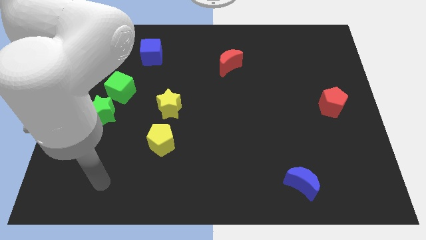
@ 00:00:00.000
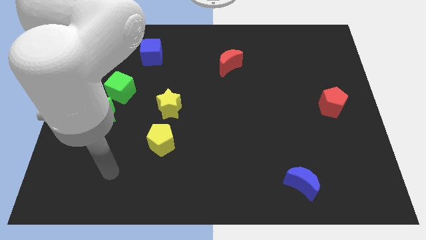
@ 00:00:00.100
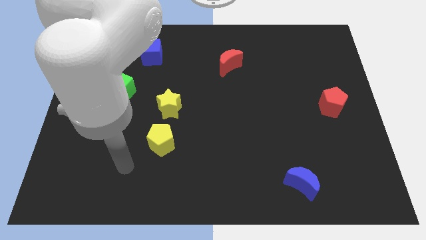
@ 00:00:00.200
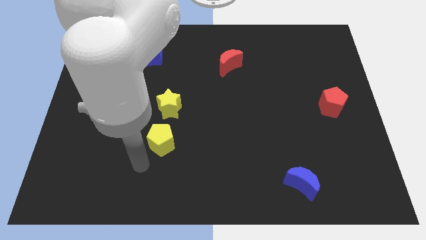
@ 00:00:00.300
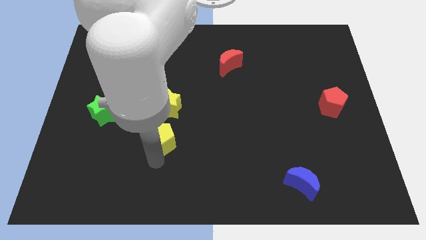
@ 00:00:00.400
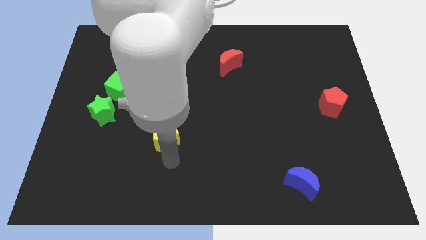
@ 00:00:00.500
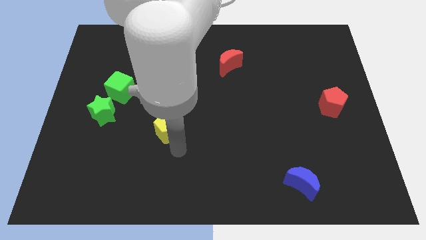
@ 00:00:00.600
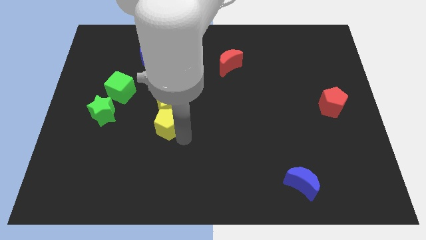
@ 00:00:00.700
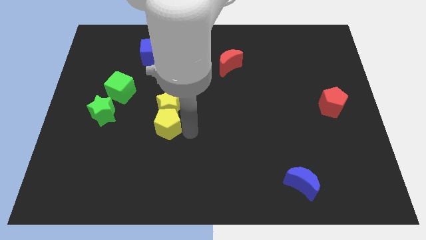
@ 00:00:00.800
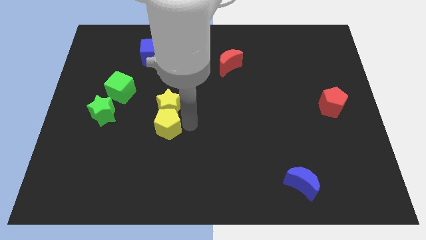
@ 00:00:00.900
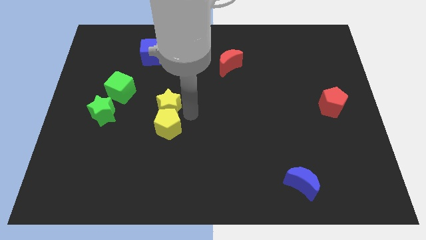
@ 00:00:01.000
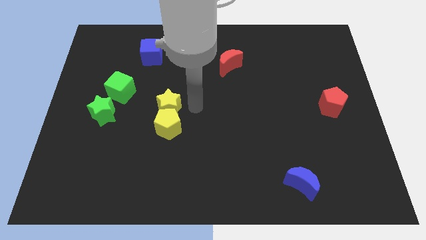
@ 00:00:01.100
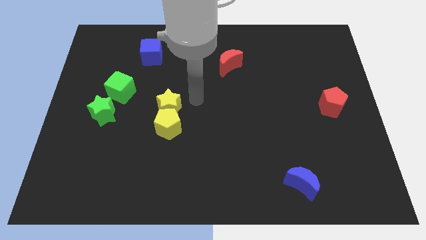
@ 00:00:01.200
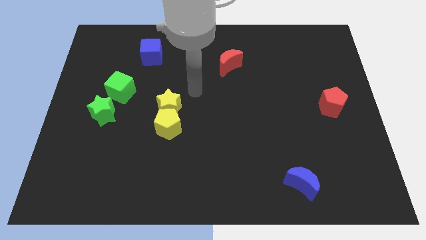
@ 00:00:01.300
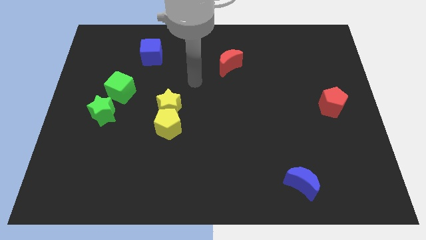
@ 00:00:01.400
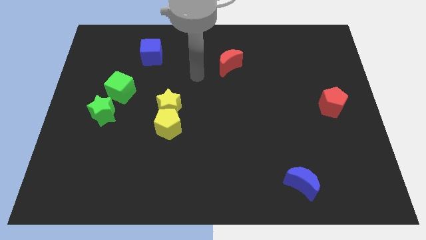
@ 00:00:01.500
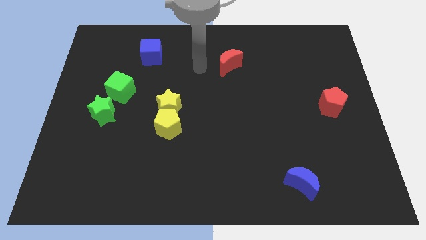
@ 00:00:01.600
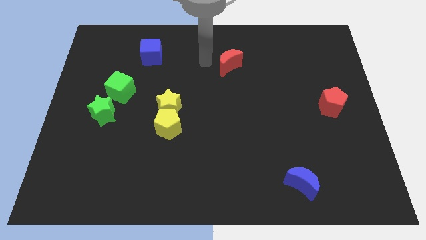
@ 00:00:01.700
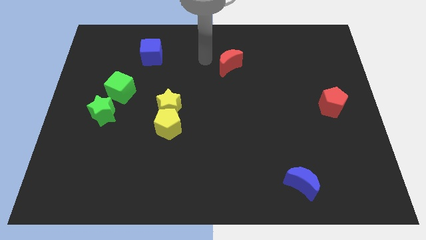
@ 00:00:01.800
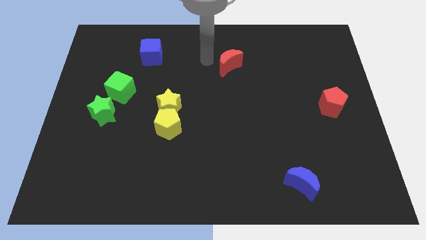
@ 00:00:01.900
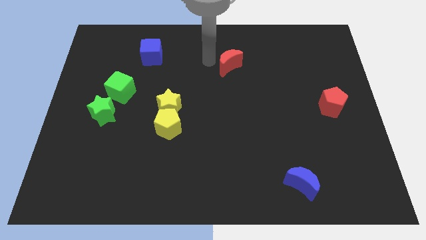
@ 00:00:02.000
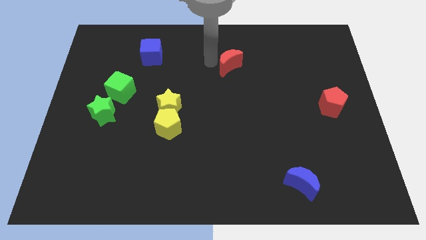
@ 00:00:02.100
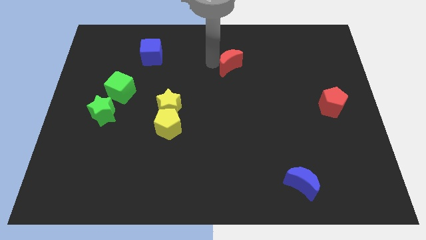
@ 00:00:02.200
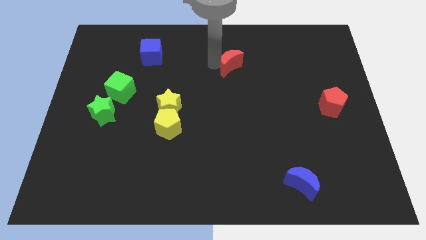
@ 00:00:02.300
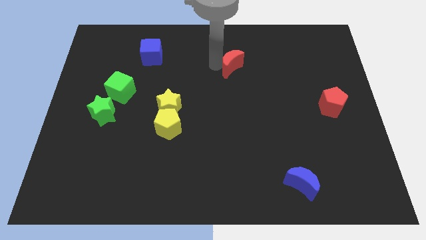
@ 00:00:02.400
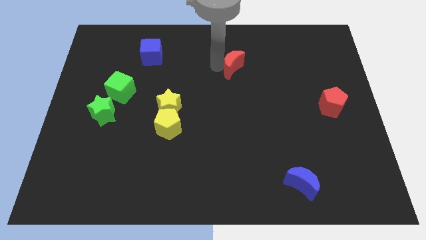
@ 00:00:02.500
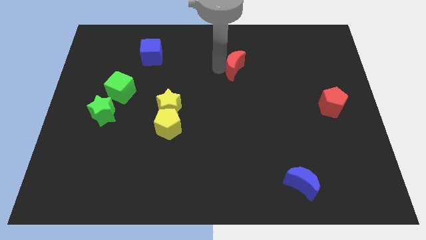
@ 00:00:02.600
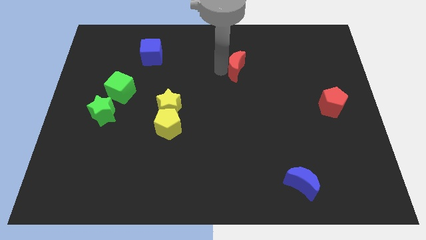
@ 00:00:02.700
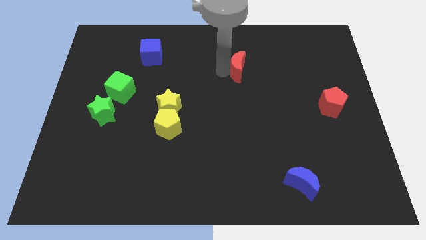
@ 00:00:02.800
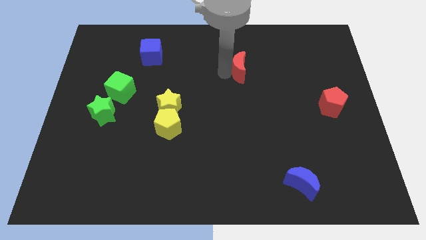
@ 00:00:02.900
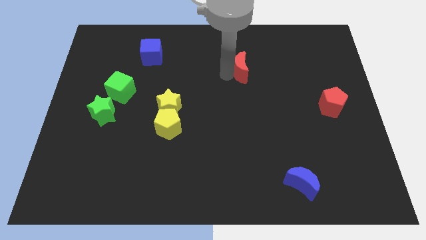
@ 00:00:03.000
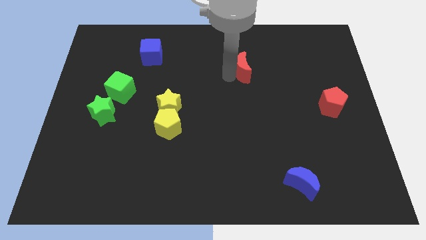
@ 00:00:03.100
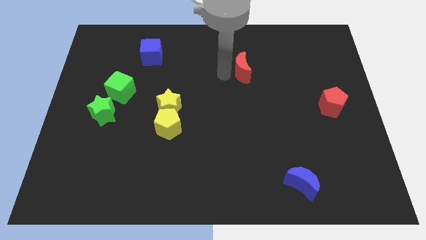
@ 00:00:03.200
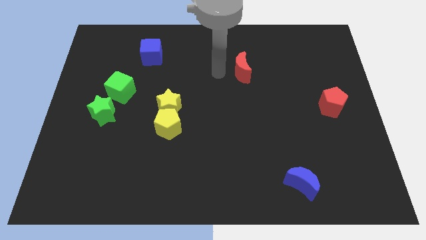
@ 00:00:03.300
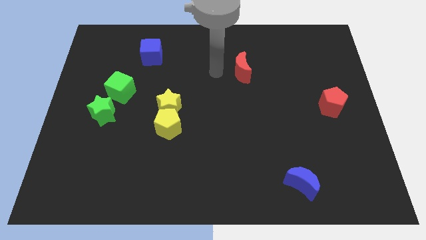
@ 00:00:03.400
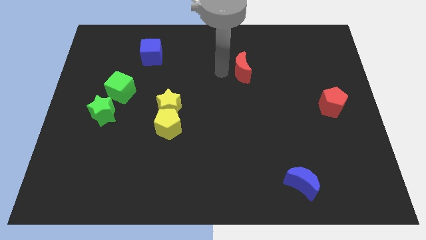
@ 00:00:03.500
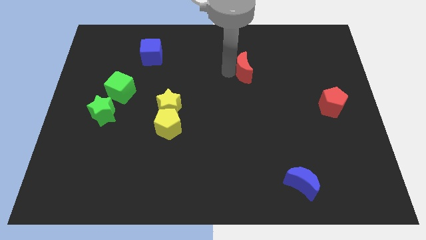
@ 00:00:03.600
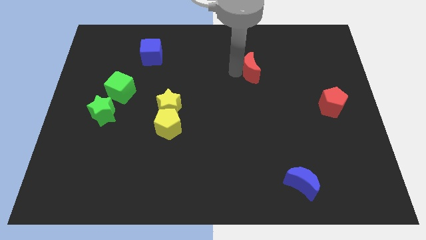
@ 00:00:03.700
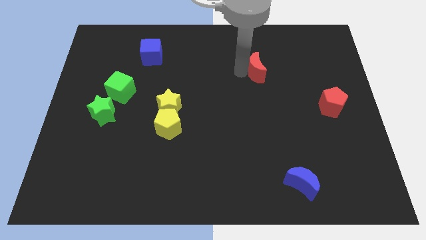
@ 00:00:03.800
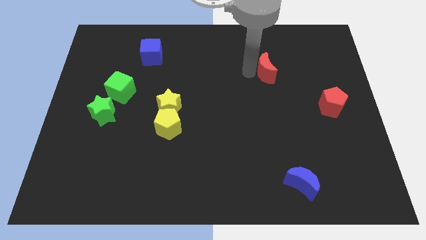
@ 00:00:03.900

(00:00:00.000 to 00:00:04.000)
slightly push the red moon to the right

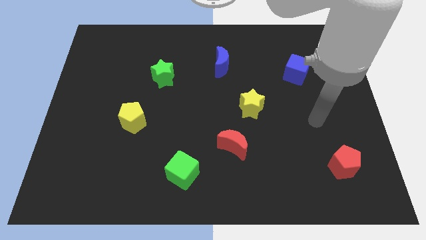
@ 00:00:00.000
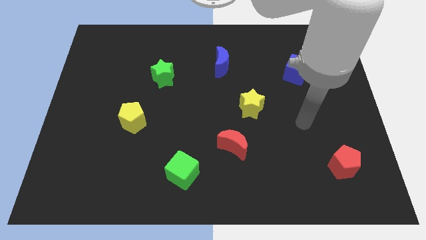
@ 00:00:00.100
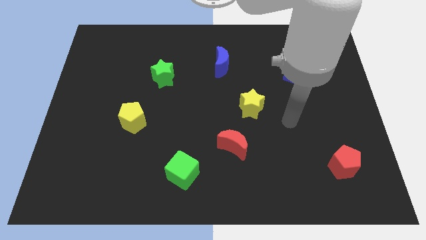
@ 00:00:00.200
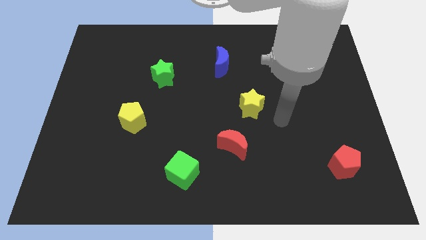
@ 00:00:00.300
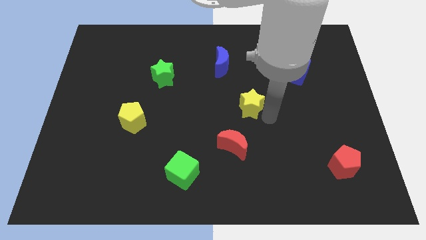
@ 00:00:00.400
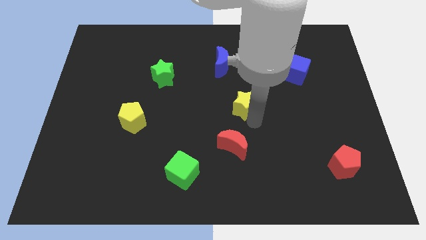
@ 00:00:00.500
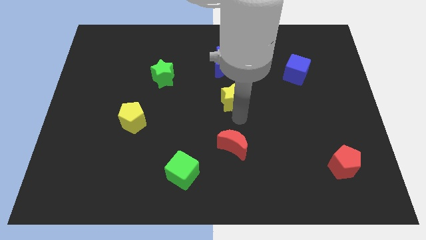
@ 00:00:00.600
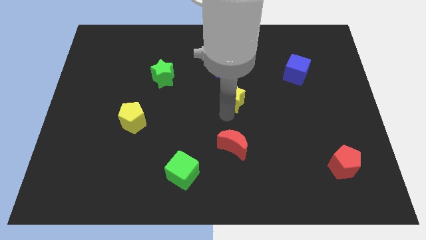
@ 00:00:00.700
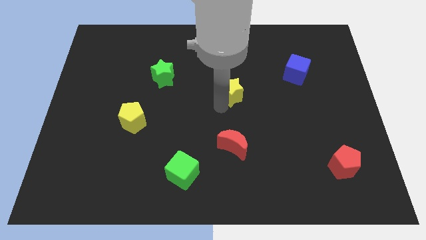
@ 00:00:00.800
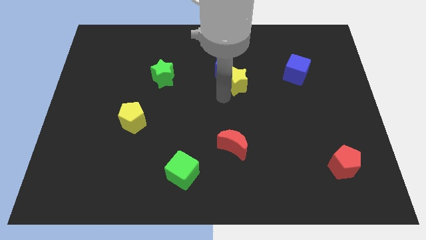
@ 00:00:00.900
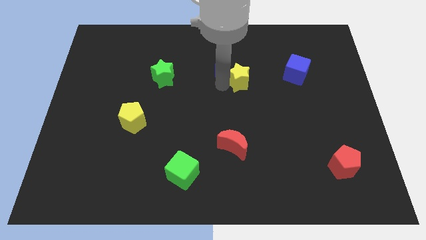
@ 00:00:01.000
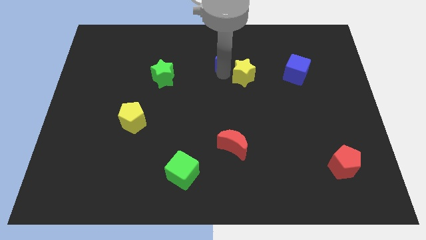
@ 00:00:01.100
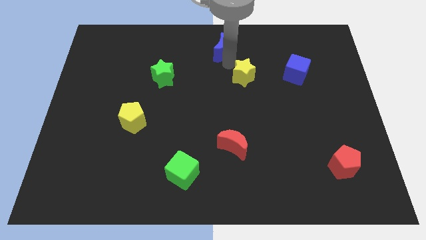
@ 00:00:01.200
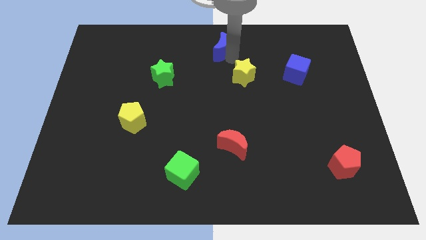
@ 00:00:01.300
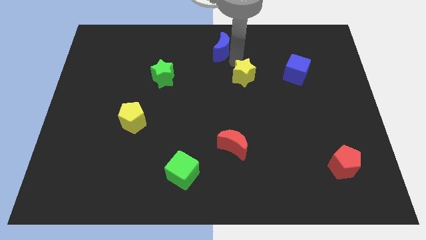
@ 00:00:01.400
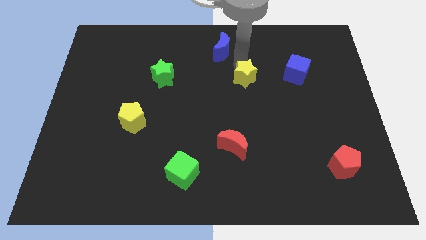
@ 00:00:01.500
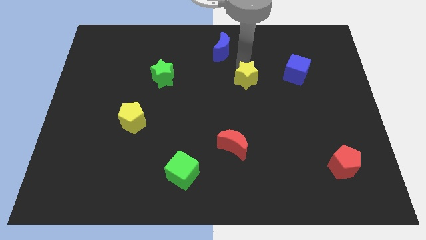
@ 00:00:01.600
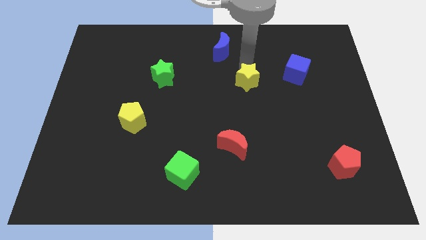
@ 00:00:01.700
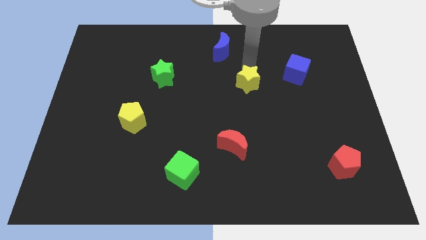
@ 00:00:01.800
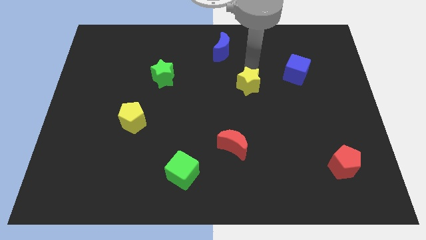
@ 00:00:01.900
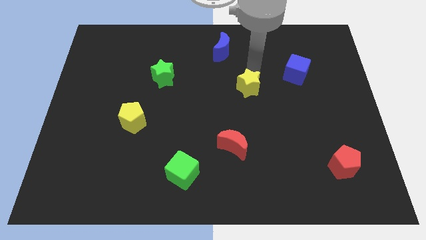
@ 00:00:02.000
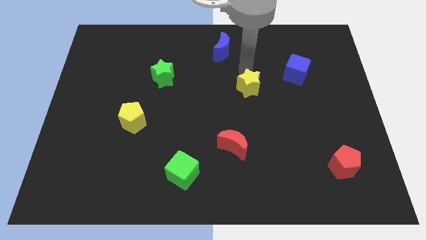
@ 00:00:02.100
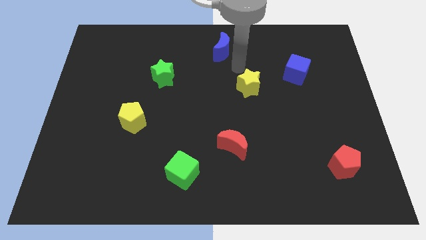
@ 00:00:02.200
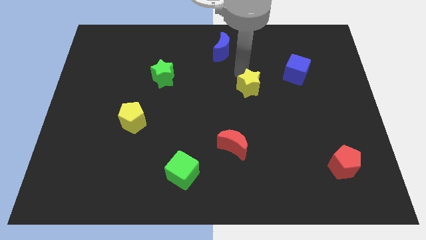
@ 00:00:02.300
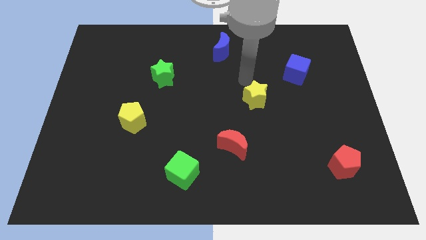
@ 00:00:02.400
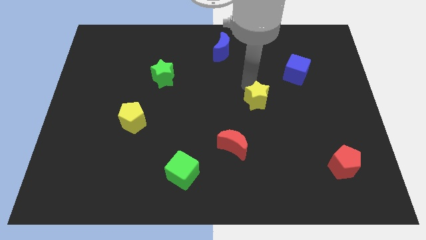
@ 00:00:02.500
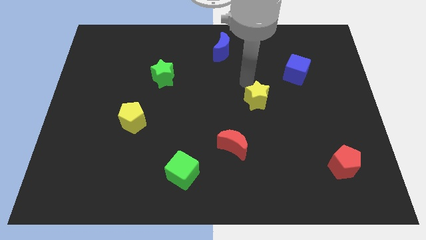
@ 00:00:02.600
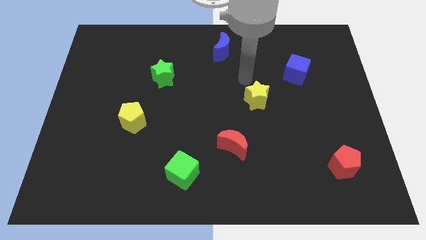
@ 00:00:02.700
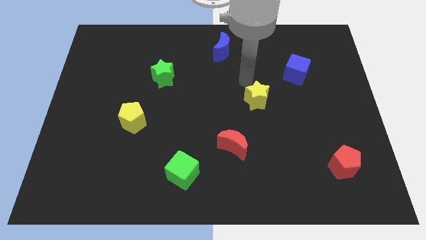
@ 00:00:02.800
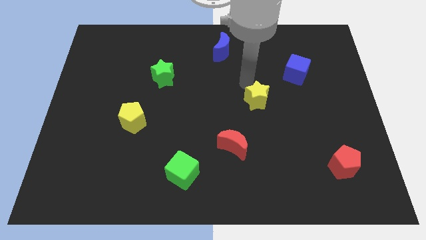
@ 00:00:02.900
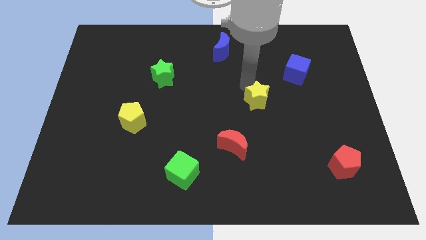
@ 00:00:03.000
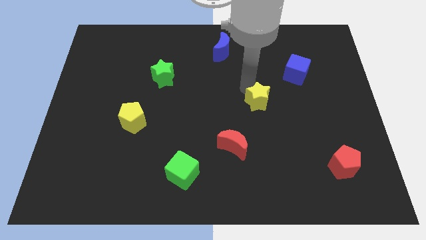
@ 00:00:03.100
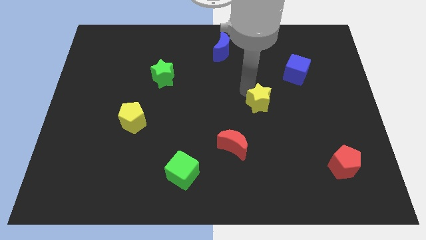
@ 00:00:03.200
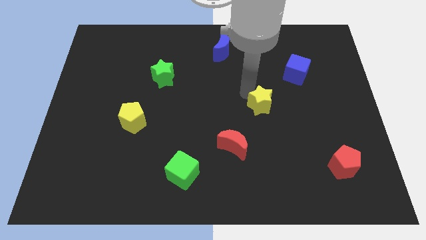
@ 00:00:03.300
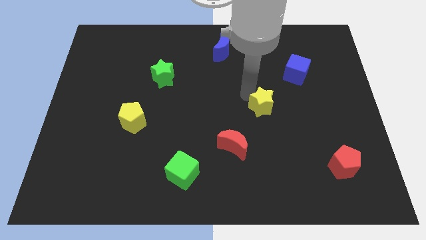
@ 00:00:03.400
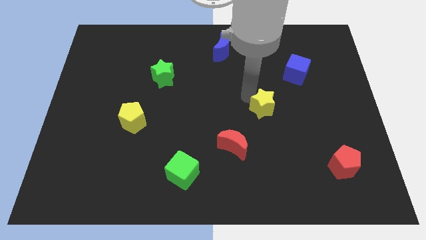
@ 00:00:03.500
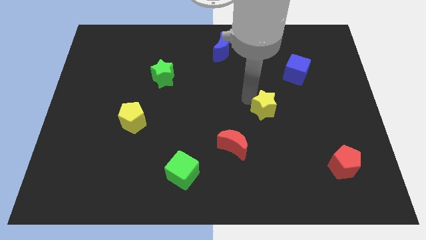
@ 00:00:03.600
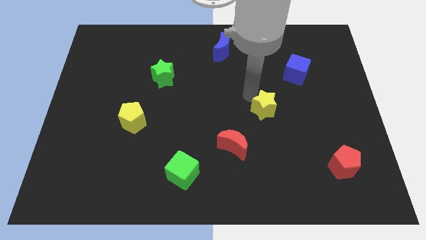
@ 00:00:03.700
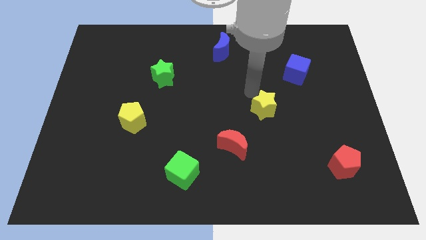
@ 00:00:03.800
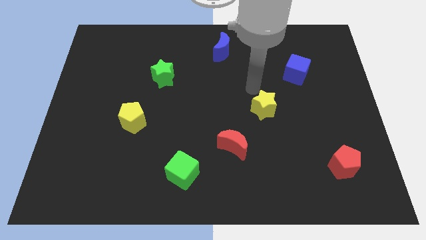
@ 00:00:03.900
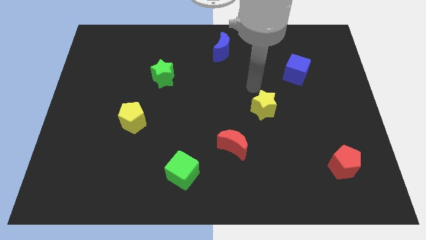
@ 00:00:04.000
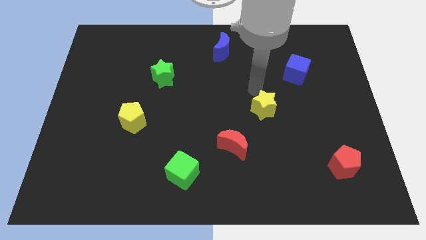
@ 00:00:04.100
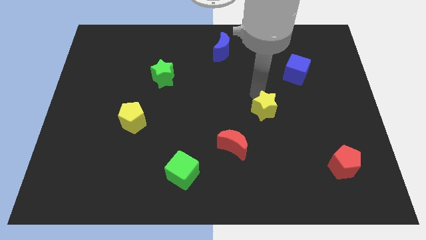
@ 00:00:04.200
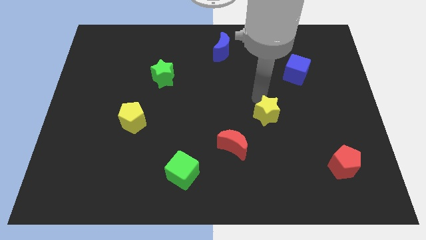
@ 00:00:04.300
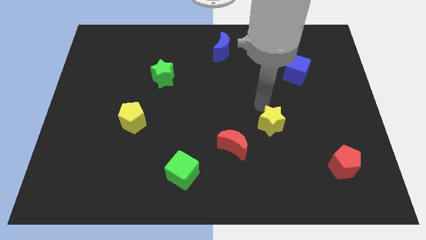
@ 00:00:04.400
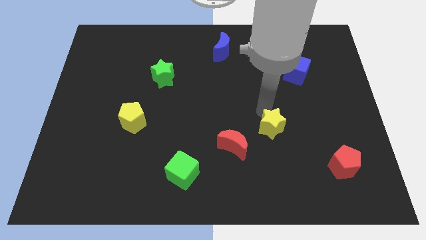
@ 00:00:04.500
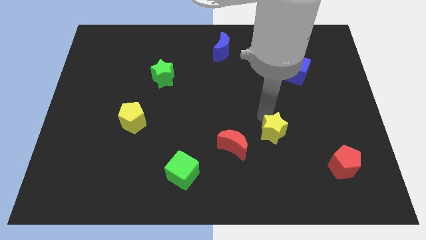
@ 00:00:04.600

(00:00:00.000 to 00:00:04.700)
slide the yellow star downwards and then right slightly
